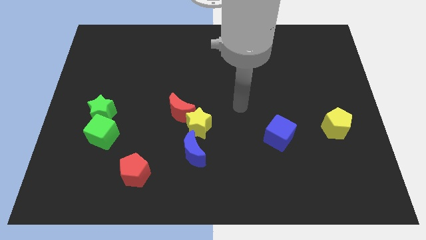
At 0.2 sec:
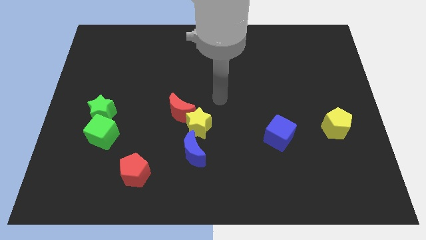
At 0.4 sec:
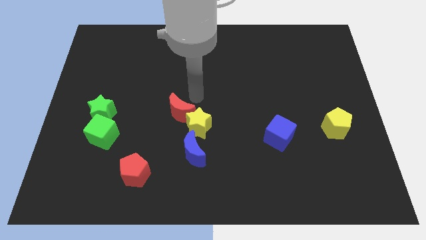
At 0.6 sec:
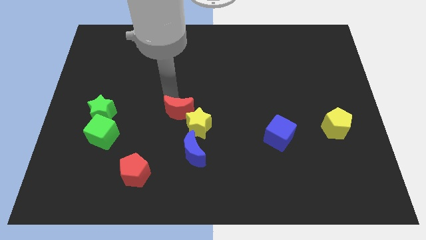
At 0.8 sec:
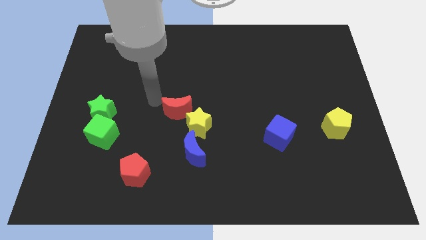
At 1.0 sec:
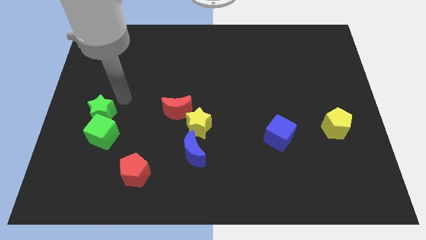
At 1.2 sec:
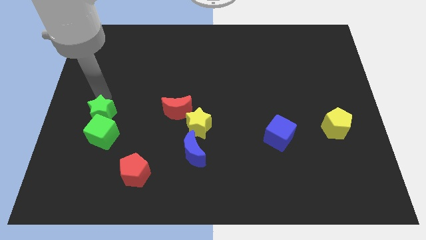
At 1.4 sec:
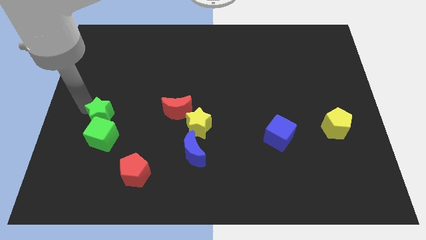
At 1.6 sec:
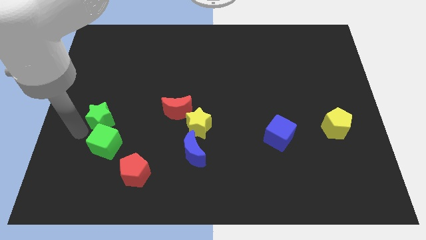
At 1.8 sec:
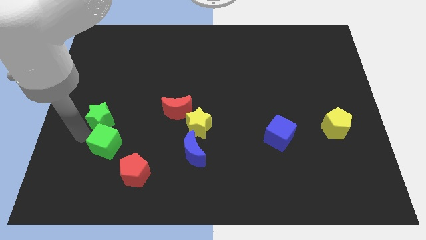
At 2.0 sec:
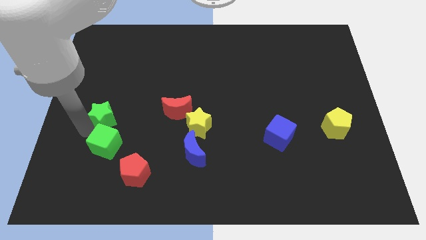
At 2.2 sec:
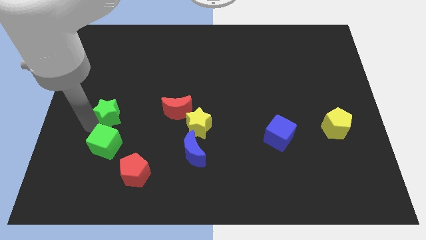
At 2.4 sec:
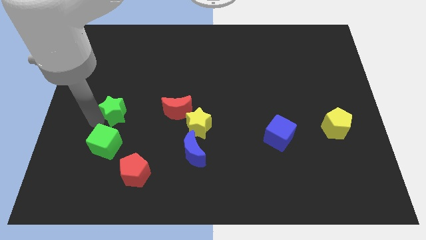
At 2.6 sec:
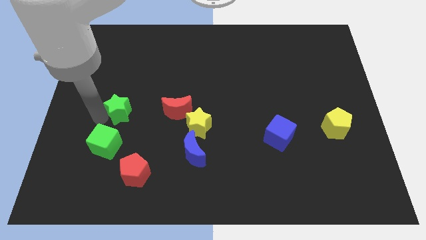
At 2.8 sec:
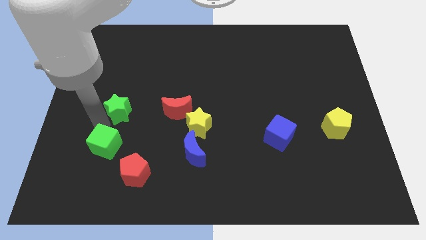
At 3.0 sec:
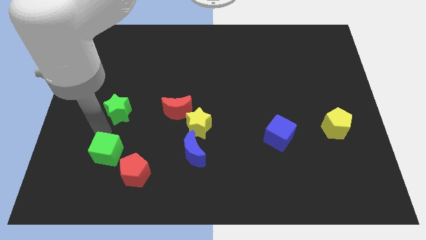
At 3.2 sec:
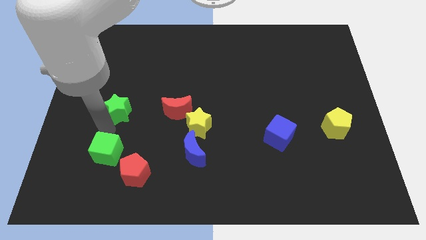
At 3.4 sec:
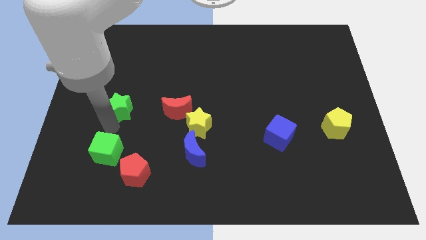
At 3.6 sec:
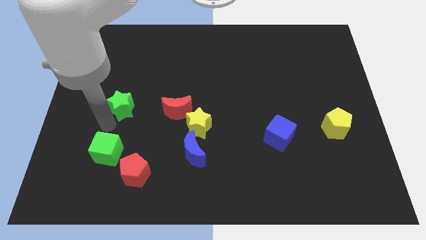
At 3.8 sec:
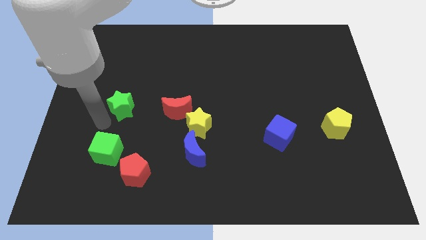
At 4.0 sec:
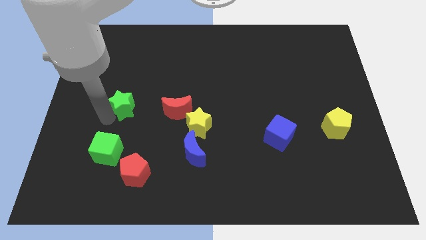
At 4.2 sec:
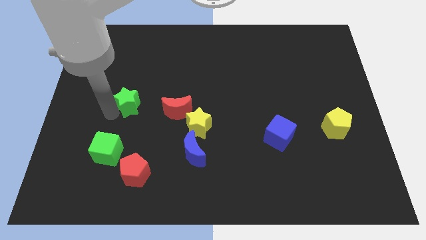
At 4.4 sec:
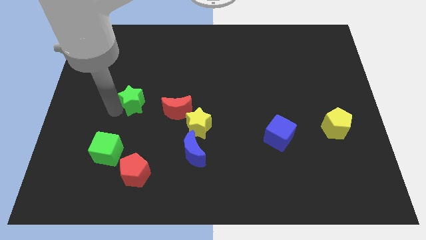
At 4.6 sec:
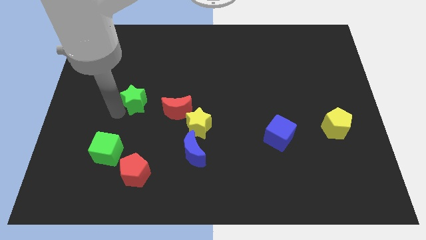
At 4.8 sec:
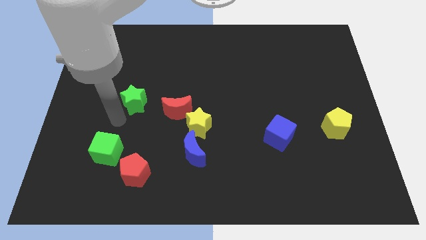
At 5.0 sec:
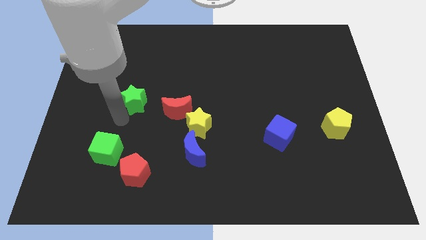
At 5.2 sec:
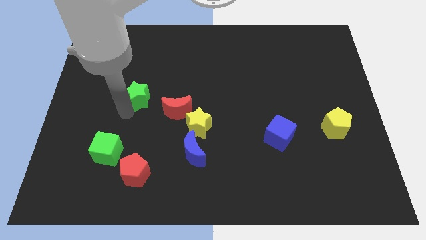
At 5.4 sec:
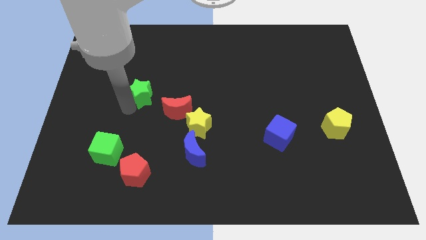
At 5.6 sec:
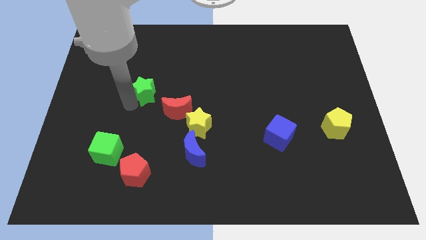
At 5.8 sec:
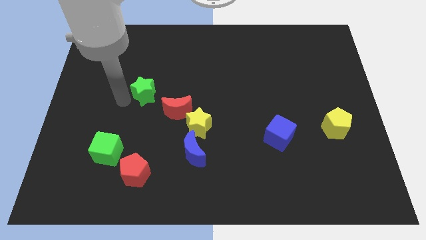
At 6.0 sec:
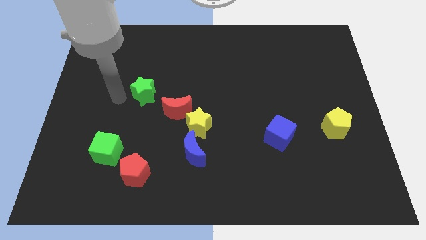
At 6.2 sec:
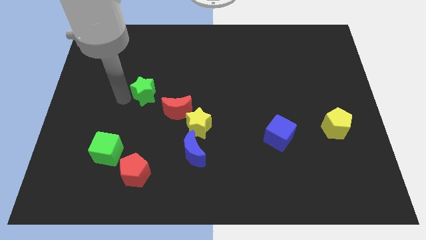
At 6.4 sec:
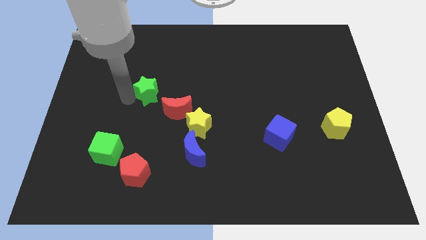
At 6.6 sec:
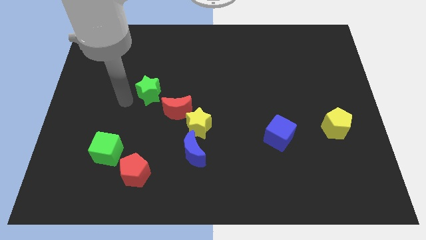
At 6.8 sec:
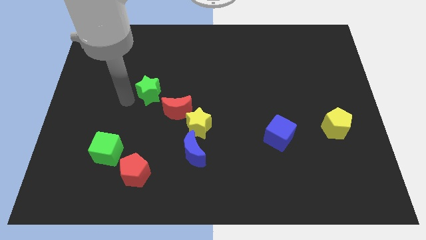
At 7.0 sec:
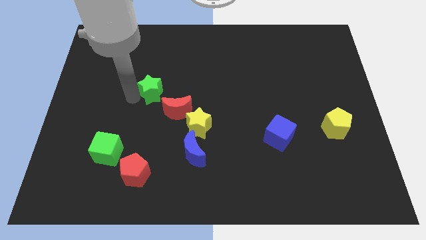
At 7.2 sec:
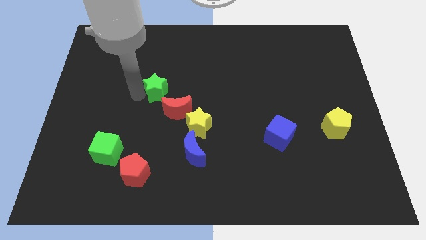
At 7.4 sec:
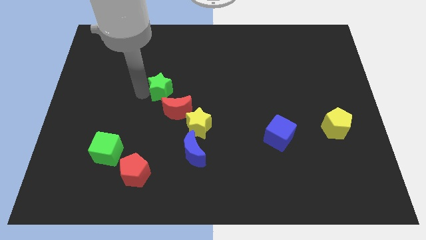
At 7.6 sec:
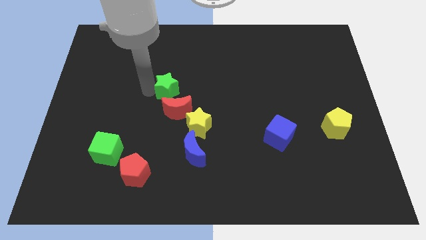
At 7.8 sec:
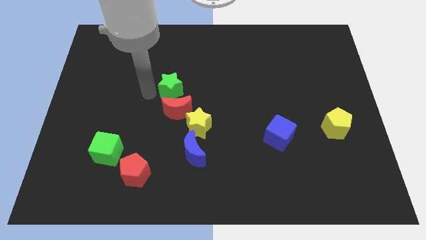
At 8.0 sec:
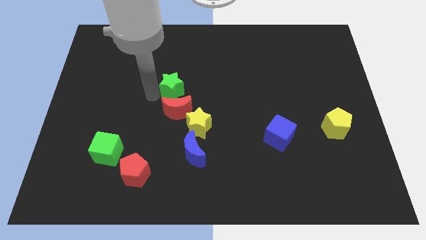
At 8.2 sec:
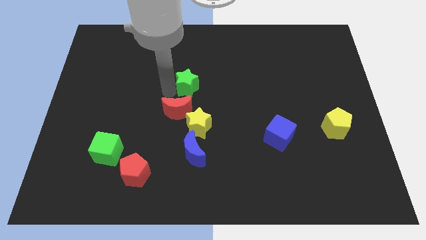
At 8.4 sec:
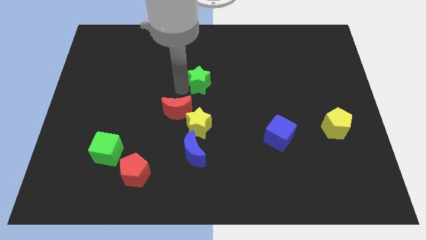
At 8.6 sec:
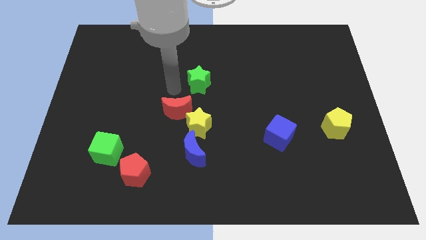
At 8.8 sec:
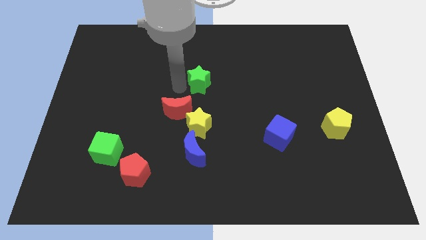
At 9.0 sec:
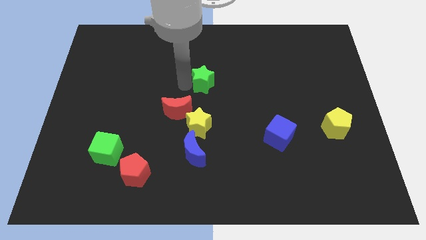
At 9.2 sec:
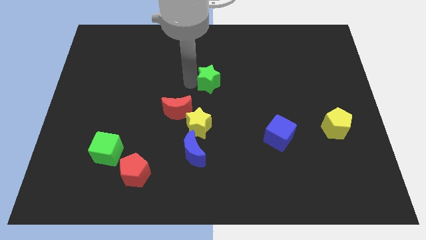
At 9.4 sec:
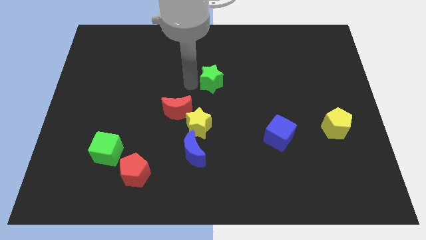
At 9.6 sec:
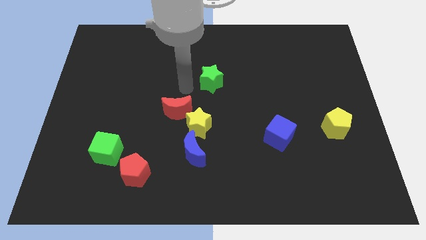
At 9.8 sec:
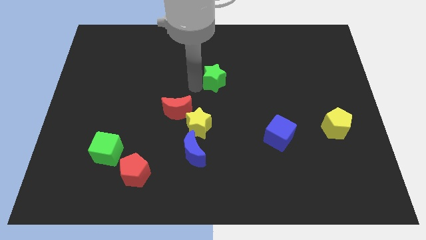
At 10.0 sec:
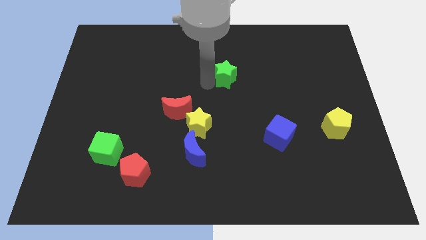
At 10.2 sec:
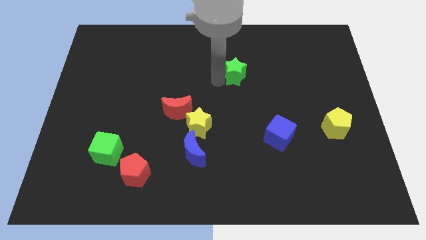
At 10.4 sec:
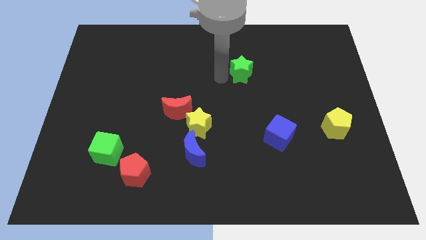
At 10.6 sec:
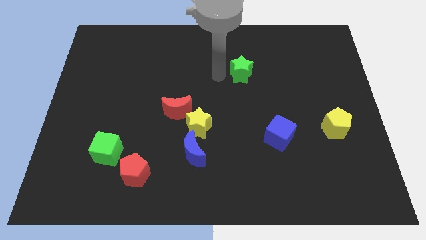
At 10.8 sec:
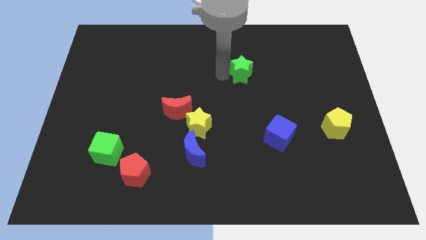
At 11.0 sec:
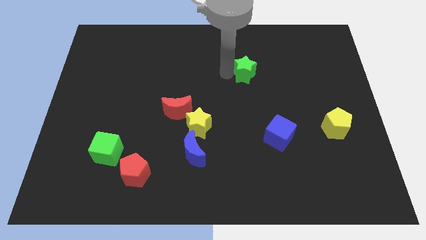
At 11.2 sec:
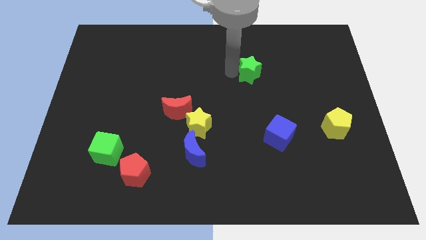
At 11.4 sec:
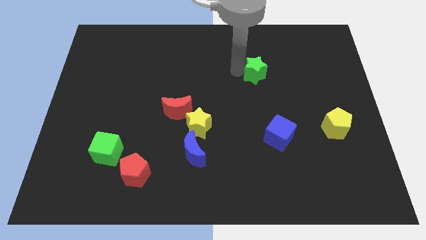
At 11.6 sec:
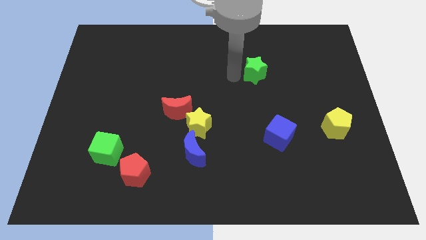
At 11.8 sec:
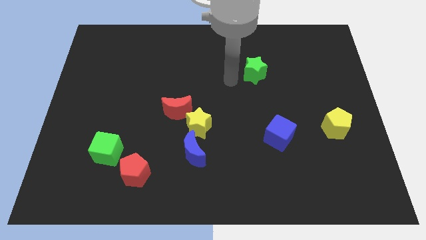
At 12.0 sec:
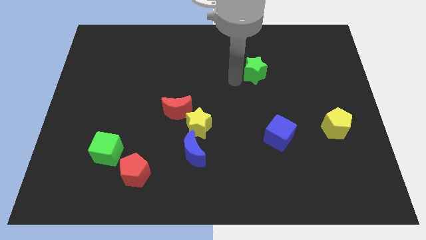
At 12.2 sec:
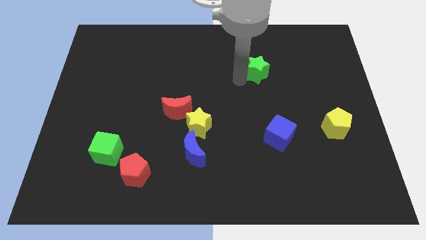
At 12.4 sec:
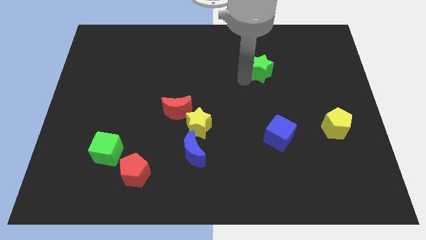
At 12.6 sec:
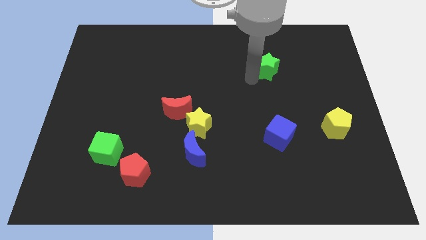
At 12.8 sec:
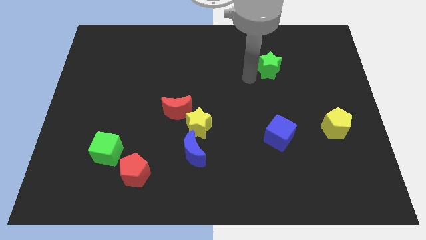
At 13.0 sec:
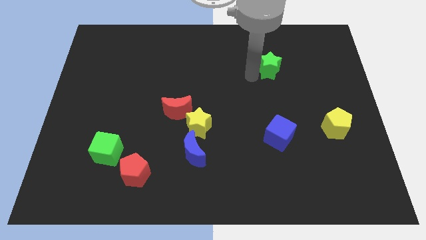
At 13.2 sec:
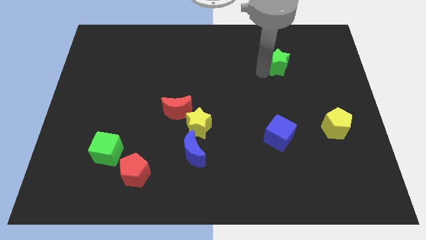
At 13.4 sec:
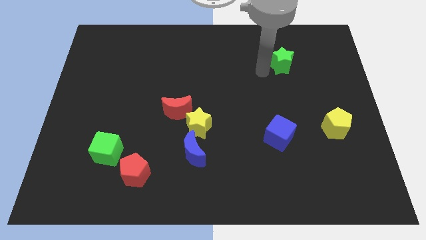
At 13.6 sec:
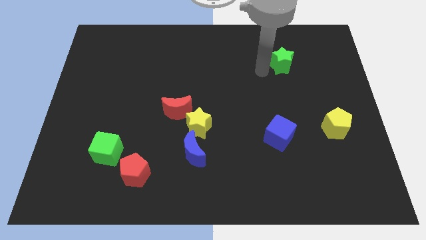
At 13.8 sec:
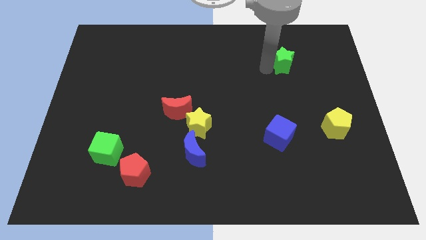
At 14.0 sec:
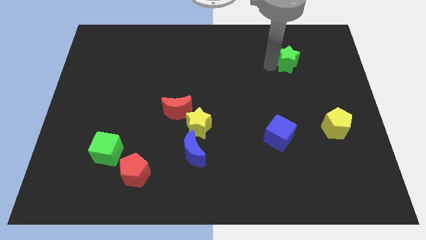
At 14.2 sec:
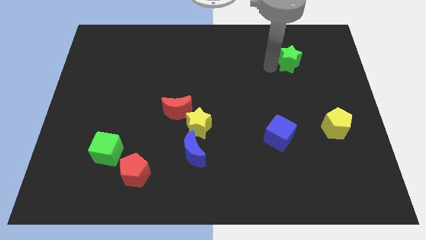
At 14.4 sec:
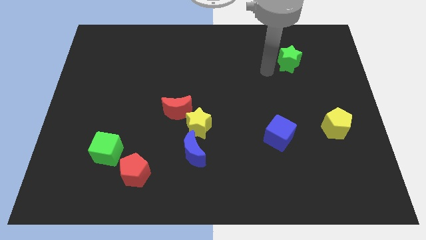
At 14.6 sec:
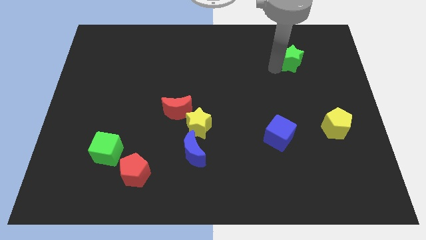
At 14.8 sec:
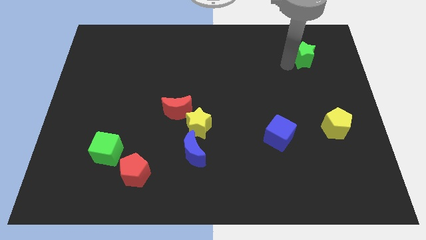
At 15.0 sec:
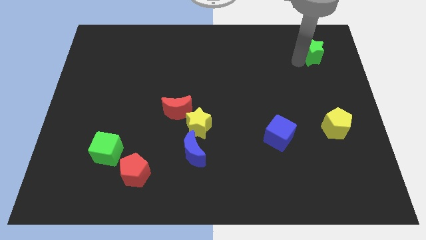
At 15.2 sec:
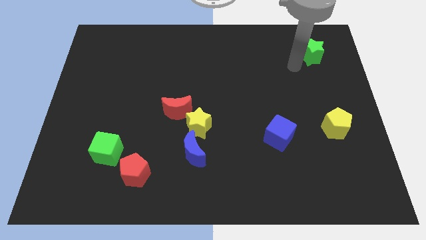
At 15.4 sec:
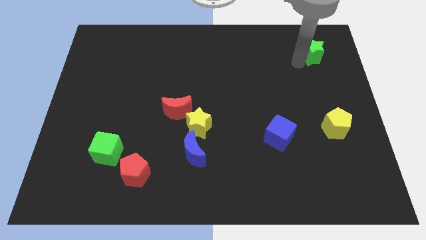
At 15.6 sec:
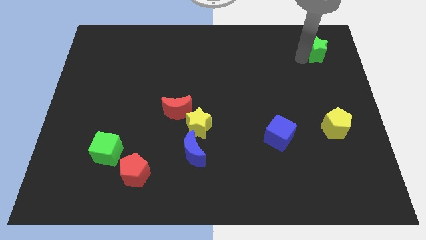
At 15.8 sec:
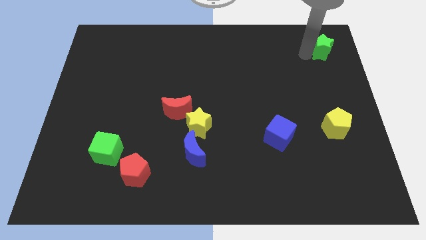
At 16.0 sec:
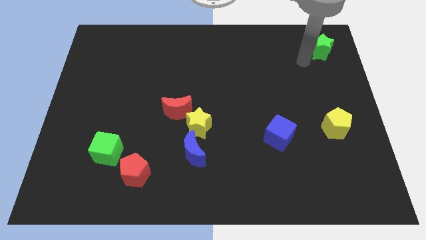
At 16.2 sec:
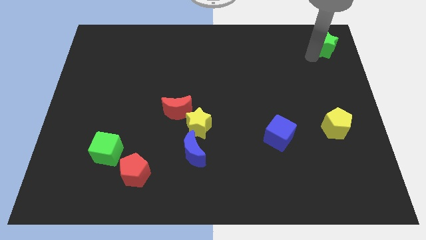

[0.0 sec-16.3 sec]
put the green star to the top right corner
